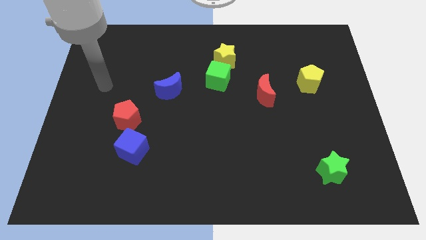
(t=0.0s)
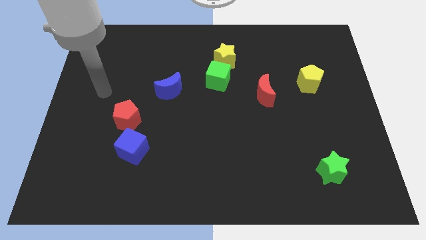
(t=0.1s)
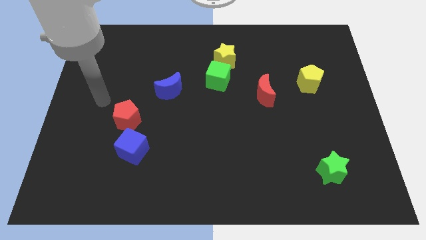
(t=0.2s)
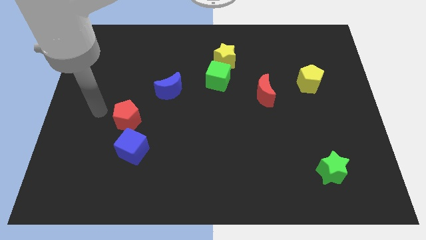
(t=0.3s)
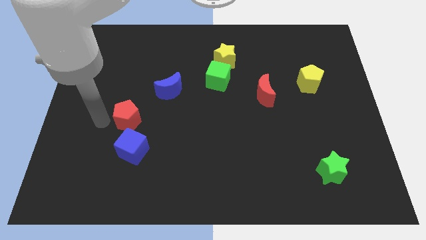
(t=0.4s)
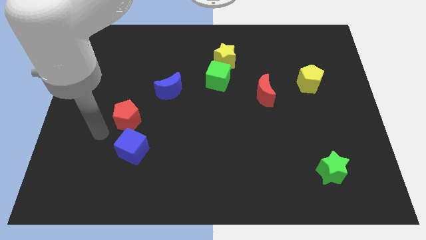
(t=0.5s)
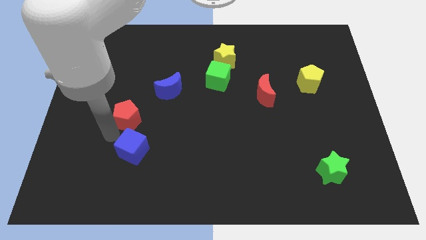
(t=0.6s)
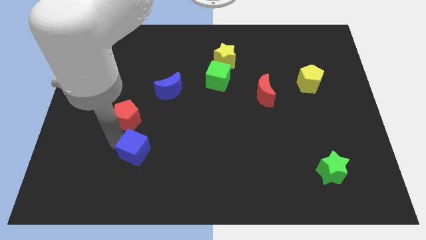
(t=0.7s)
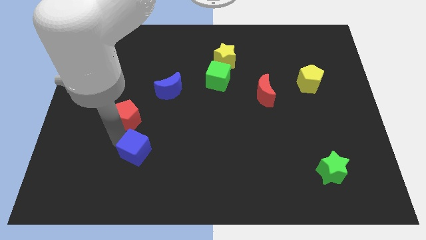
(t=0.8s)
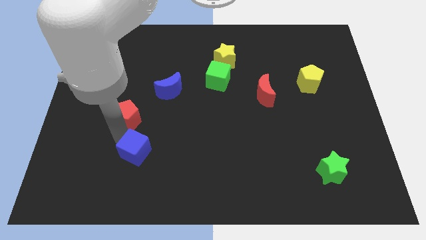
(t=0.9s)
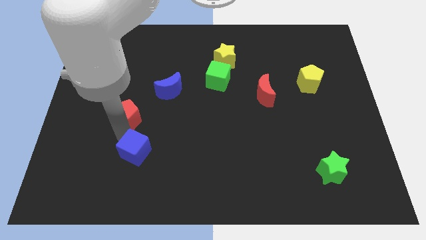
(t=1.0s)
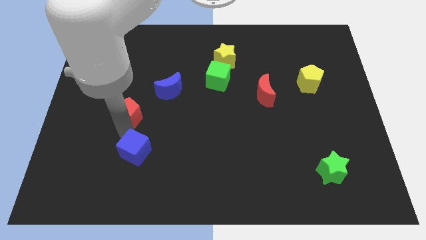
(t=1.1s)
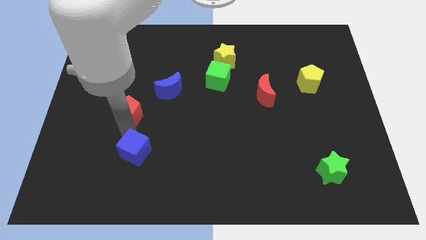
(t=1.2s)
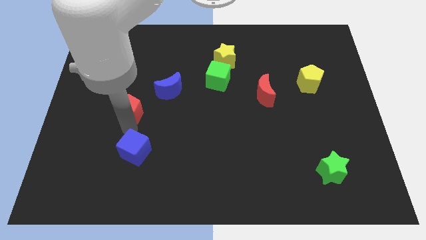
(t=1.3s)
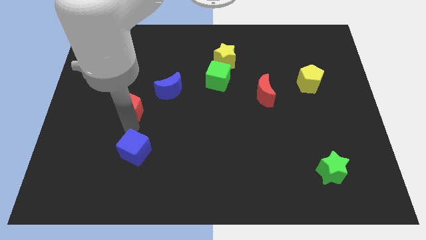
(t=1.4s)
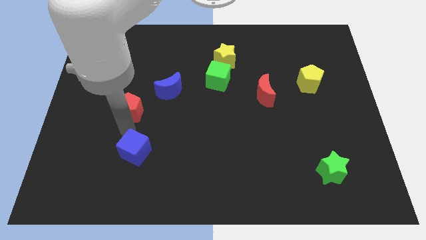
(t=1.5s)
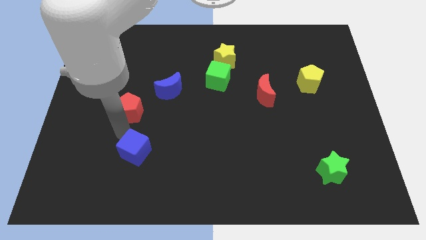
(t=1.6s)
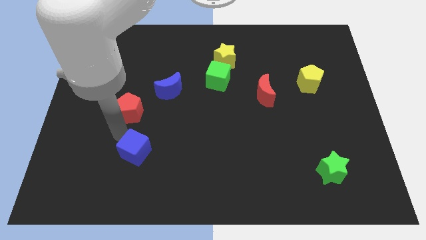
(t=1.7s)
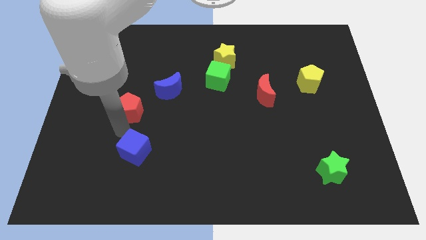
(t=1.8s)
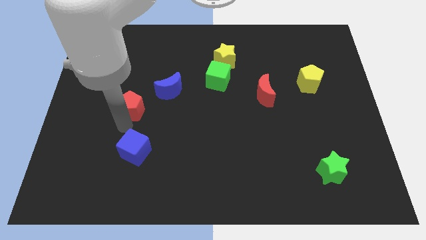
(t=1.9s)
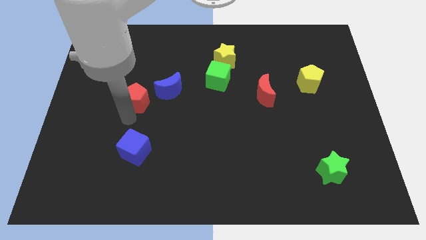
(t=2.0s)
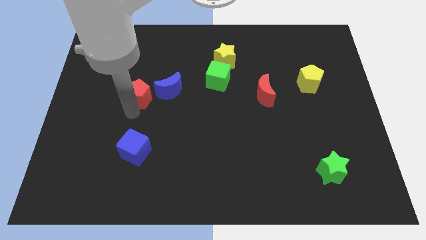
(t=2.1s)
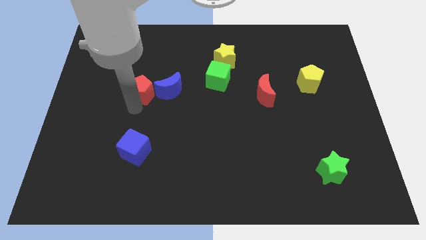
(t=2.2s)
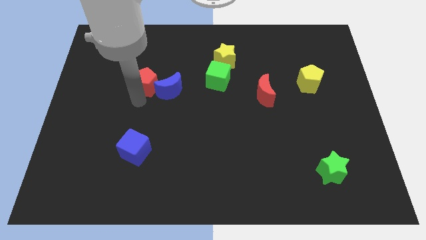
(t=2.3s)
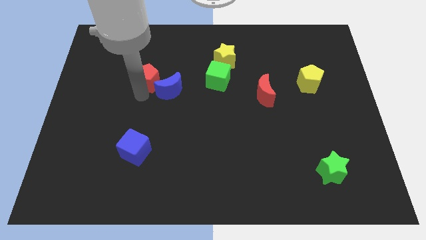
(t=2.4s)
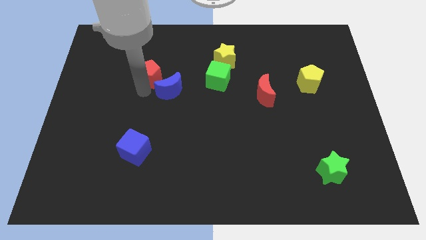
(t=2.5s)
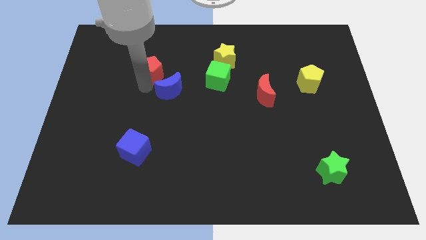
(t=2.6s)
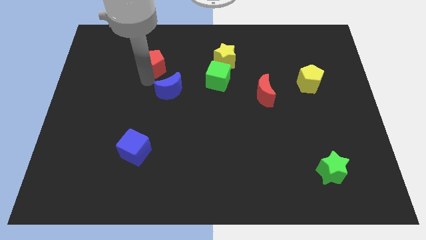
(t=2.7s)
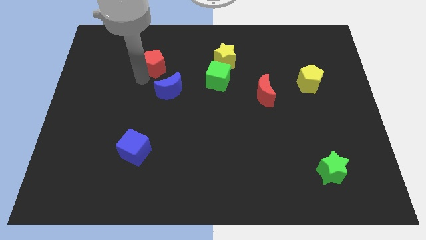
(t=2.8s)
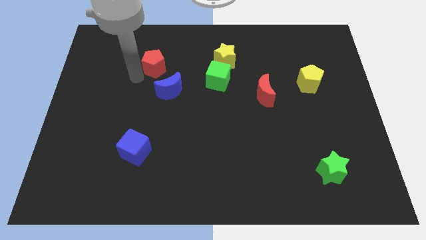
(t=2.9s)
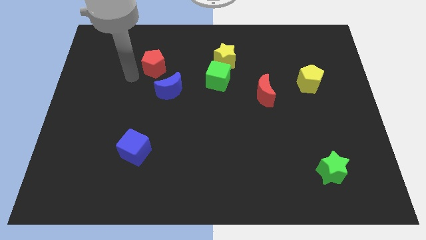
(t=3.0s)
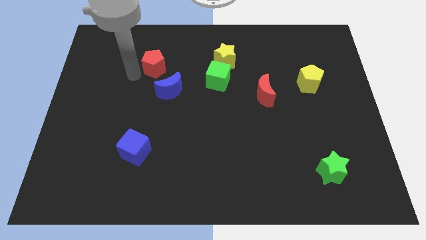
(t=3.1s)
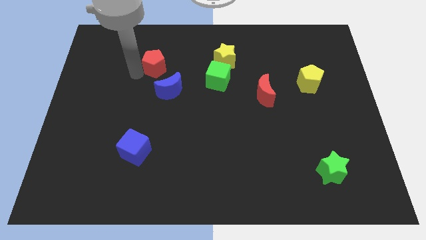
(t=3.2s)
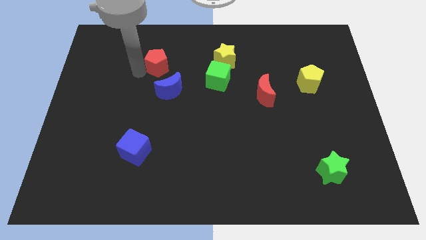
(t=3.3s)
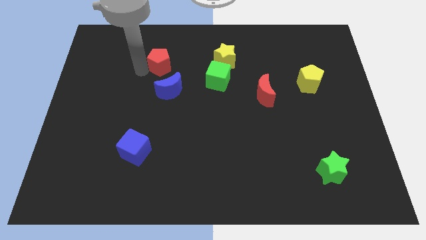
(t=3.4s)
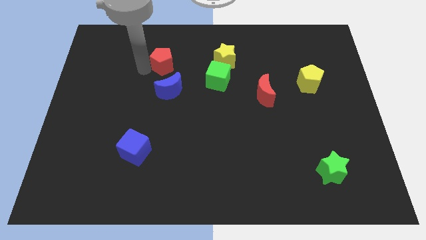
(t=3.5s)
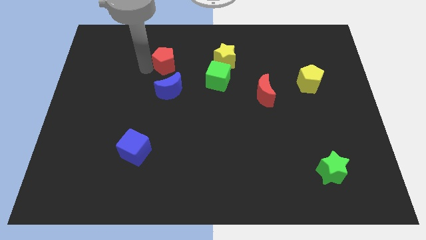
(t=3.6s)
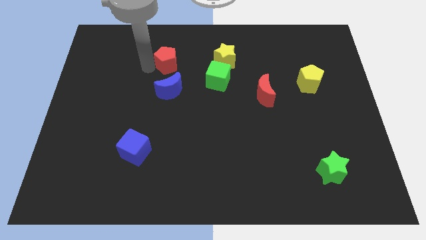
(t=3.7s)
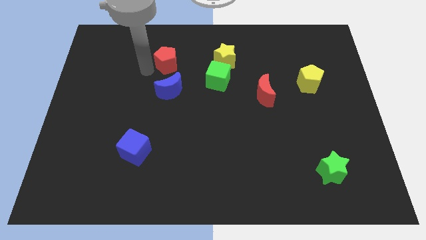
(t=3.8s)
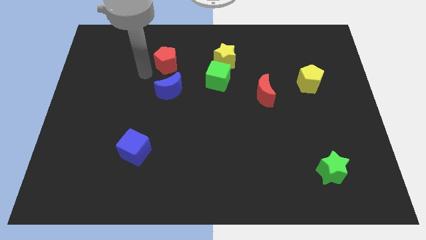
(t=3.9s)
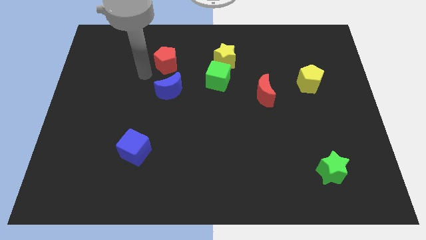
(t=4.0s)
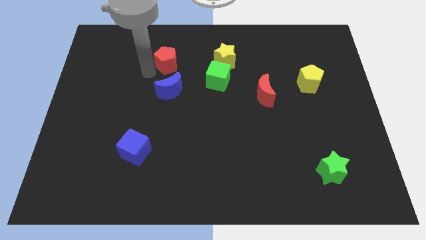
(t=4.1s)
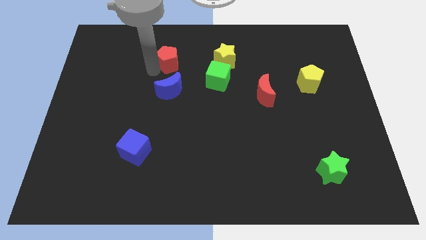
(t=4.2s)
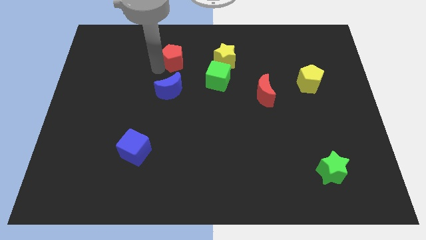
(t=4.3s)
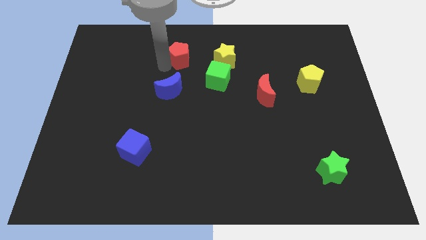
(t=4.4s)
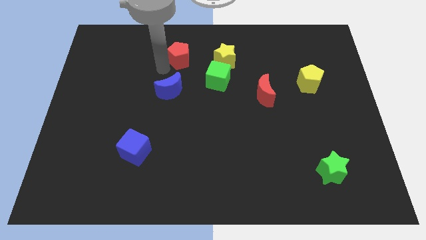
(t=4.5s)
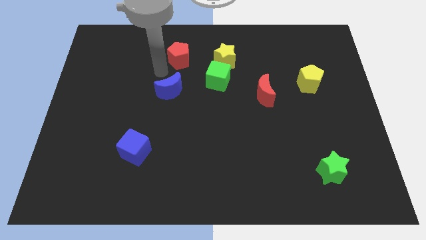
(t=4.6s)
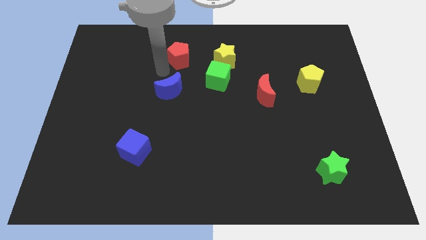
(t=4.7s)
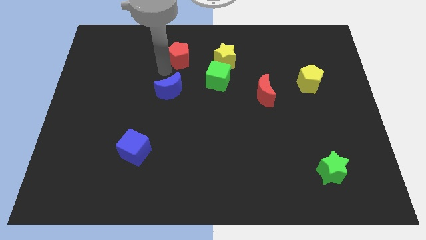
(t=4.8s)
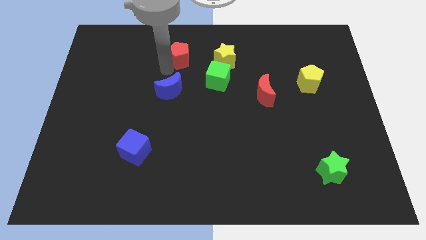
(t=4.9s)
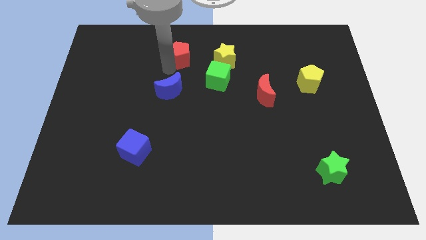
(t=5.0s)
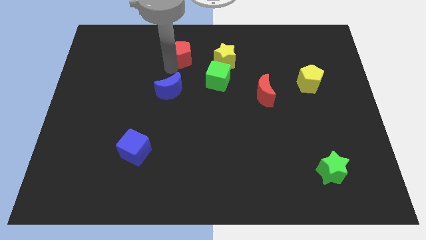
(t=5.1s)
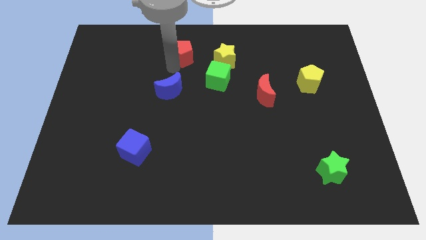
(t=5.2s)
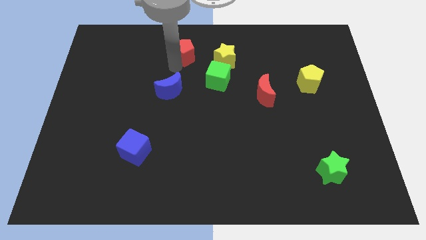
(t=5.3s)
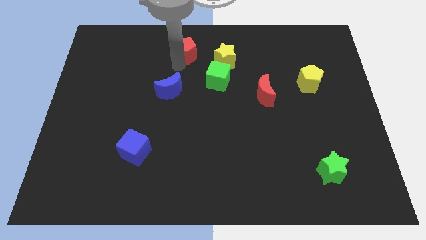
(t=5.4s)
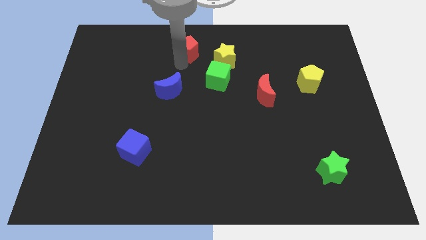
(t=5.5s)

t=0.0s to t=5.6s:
slide the red pentagon to the top

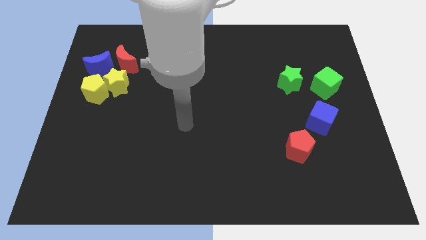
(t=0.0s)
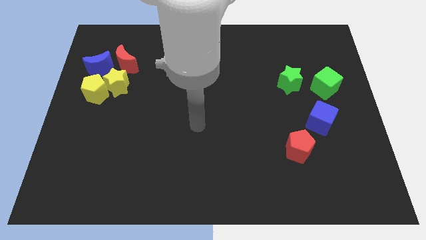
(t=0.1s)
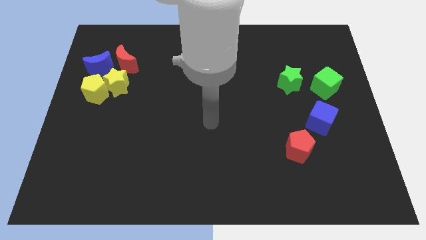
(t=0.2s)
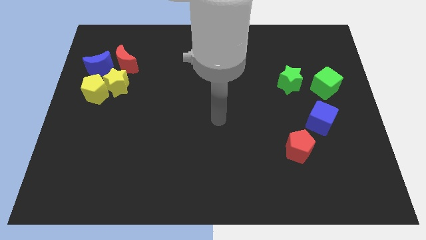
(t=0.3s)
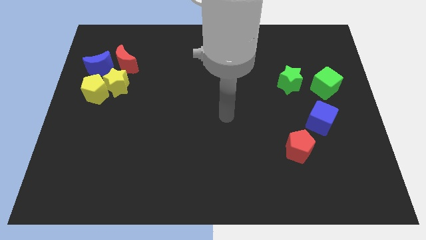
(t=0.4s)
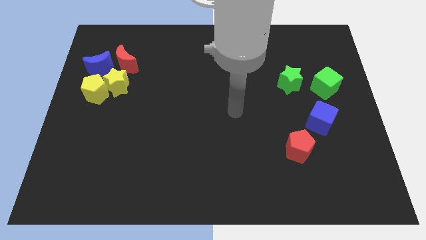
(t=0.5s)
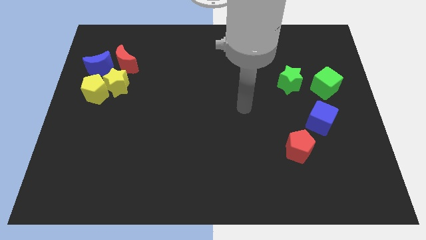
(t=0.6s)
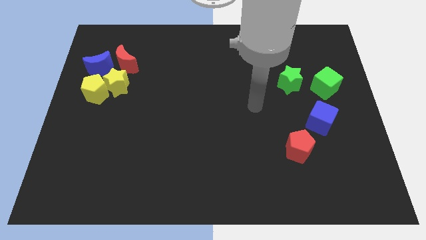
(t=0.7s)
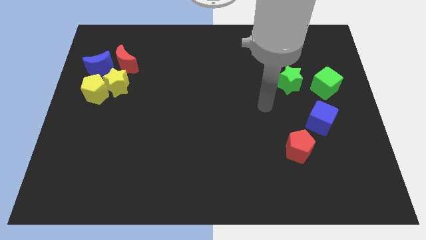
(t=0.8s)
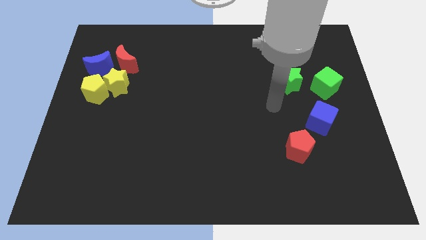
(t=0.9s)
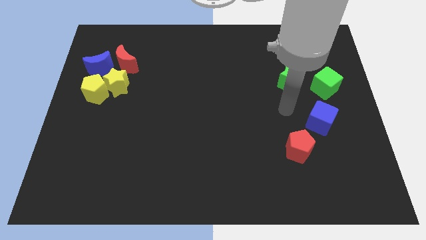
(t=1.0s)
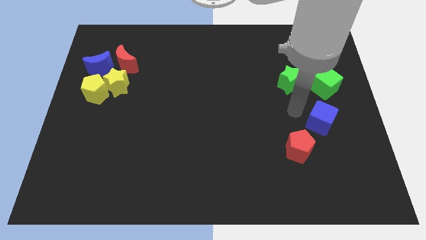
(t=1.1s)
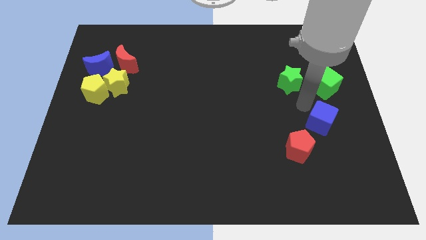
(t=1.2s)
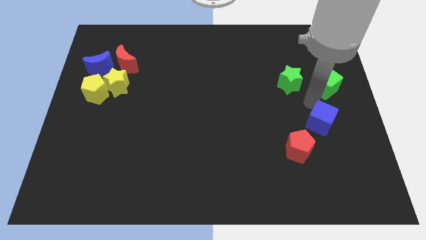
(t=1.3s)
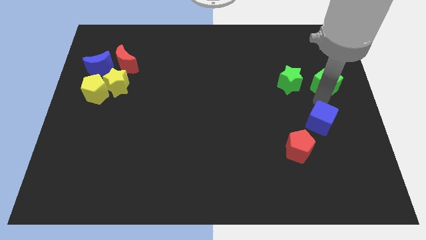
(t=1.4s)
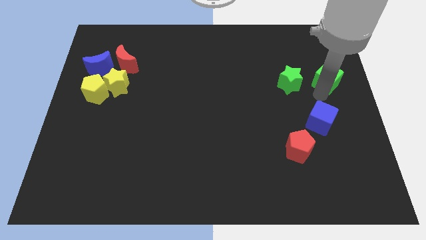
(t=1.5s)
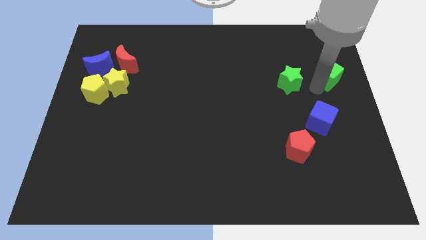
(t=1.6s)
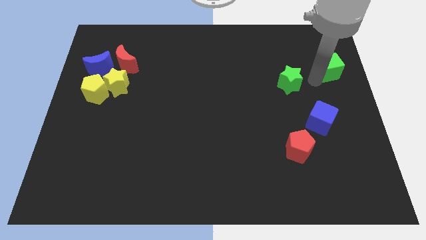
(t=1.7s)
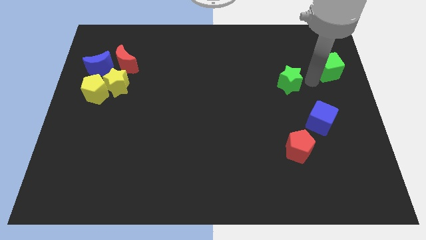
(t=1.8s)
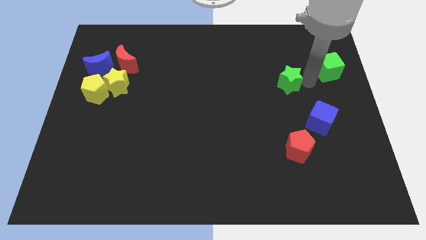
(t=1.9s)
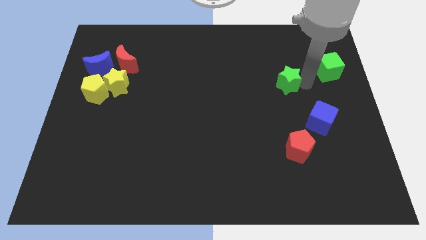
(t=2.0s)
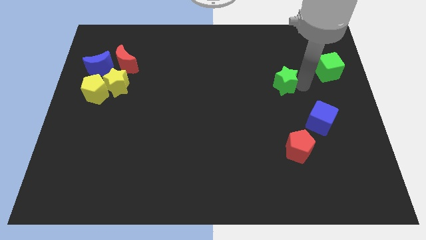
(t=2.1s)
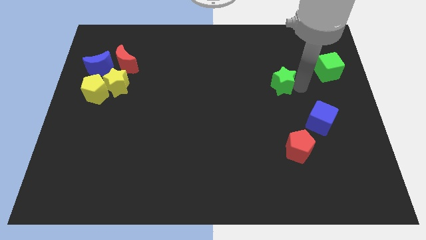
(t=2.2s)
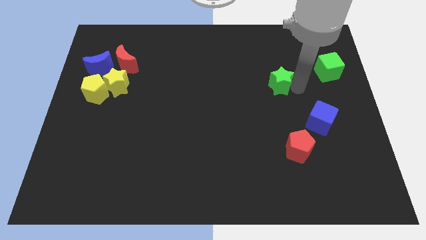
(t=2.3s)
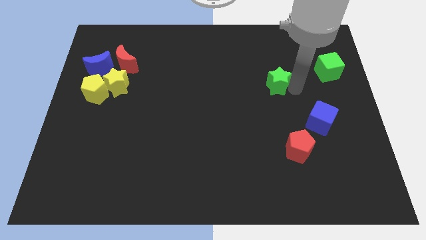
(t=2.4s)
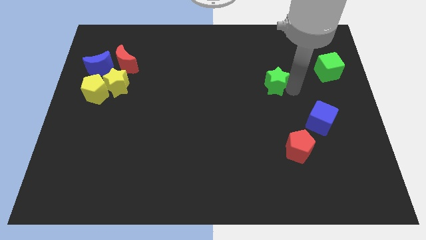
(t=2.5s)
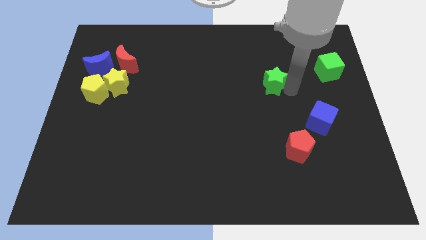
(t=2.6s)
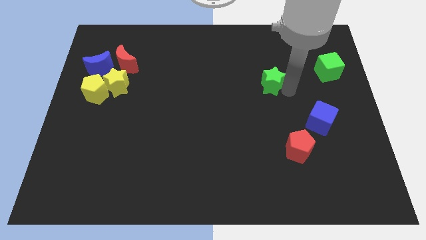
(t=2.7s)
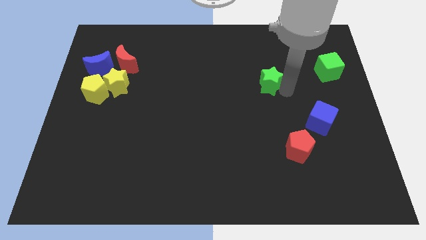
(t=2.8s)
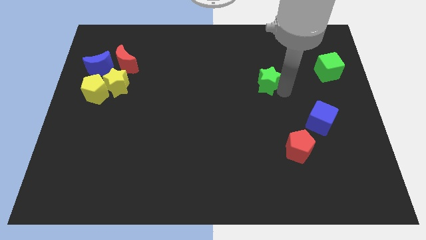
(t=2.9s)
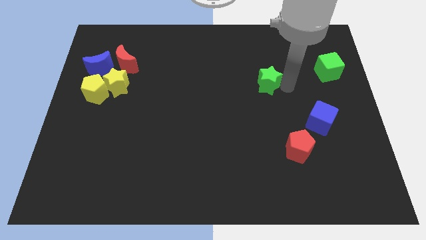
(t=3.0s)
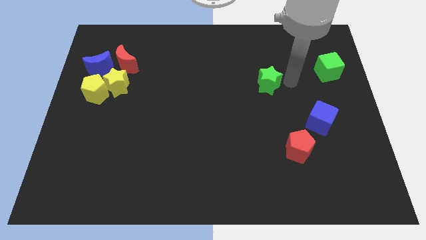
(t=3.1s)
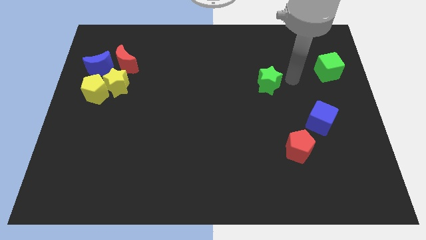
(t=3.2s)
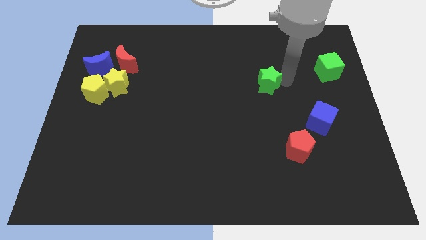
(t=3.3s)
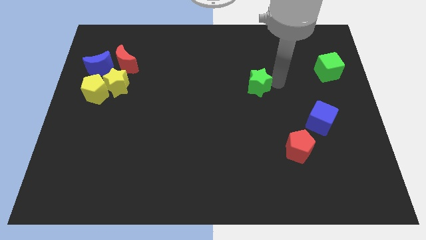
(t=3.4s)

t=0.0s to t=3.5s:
push the green star to the center of the board
